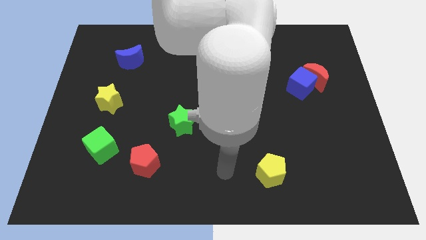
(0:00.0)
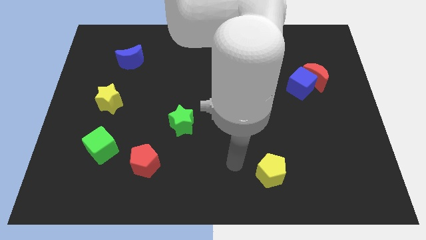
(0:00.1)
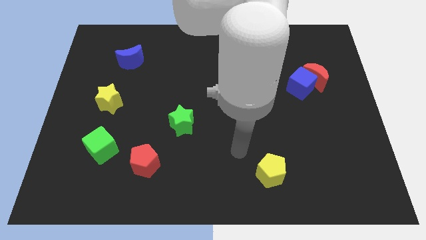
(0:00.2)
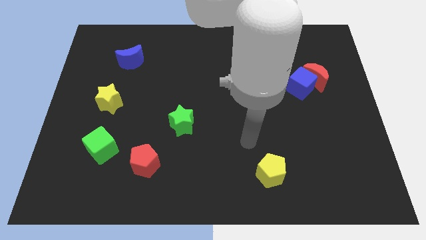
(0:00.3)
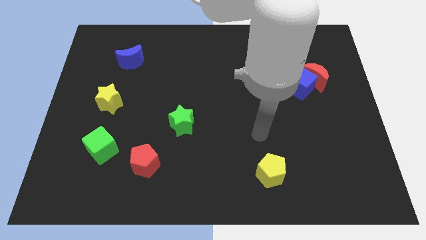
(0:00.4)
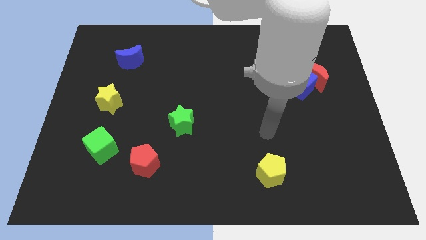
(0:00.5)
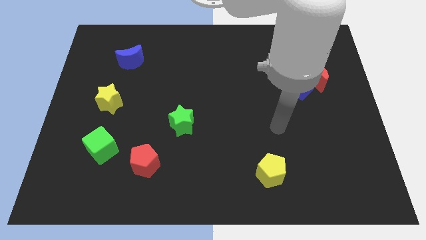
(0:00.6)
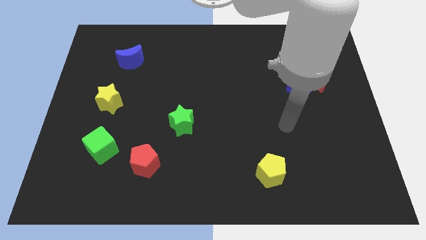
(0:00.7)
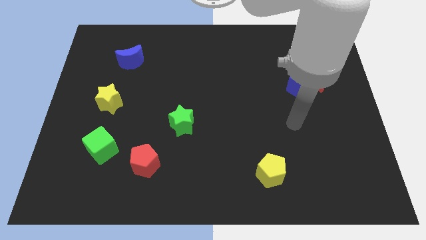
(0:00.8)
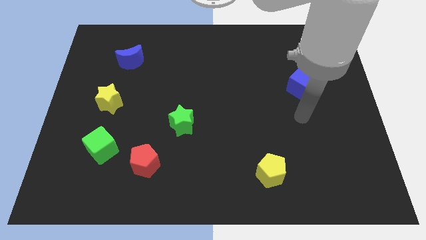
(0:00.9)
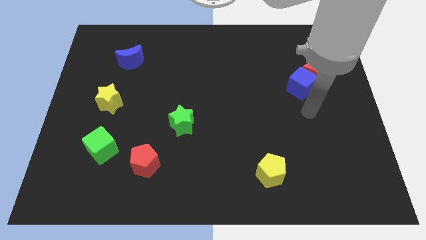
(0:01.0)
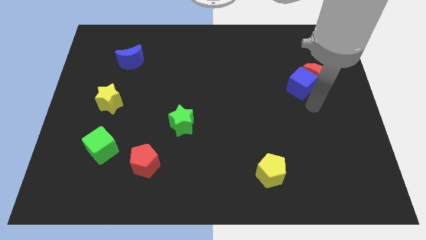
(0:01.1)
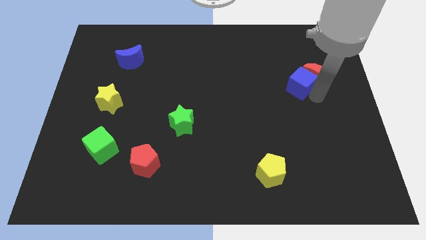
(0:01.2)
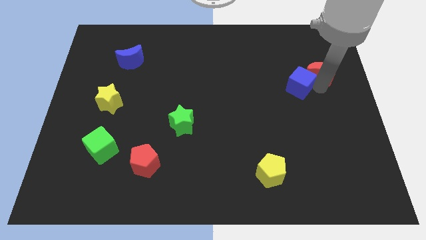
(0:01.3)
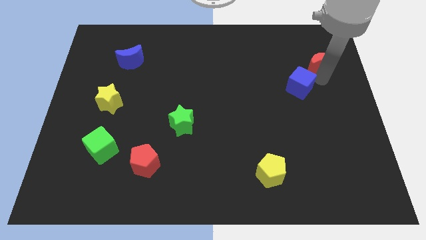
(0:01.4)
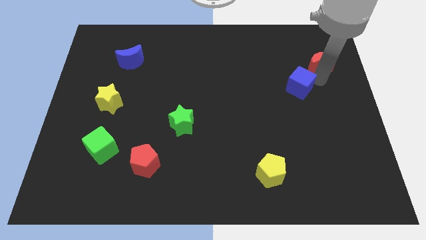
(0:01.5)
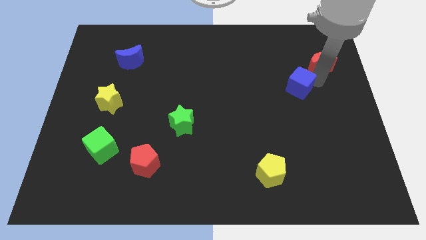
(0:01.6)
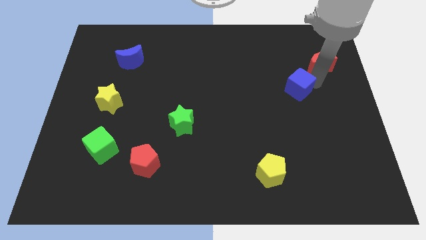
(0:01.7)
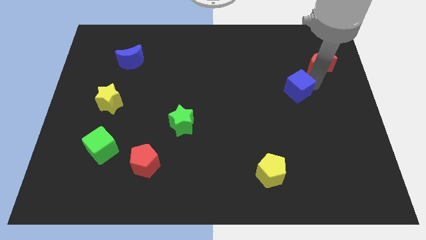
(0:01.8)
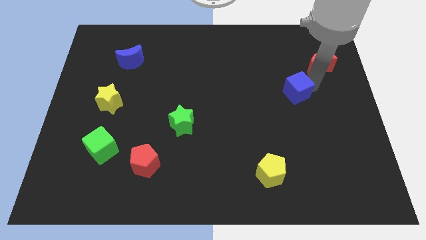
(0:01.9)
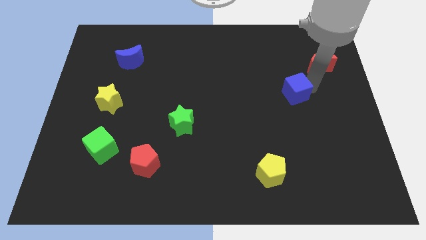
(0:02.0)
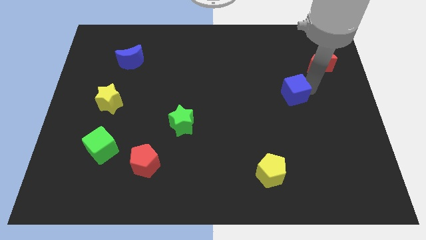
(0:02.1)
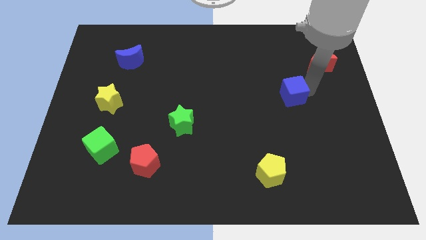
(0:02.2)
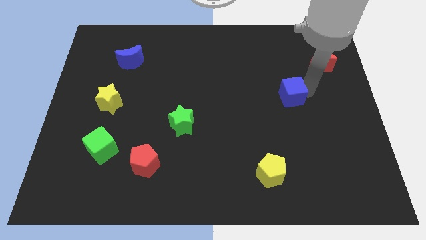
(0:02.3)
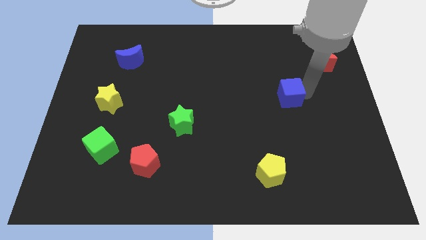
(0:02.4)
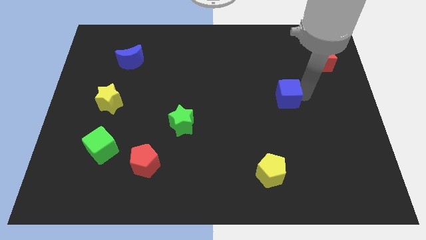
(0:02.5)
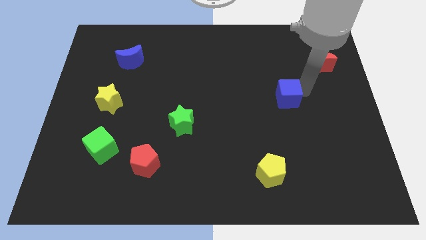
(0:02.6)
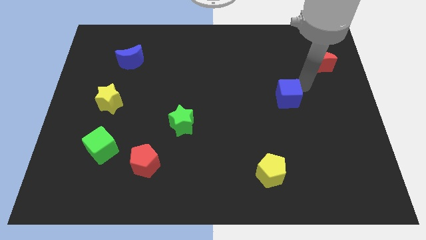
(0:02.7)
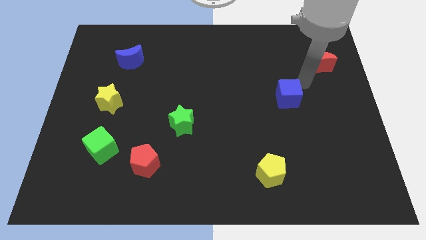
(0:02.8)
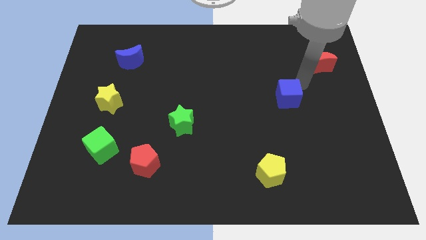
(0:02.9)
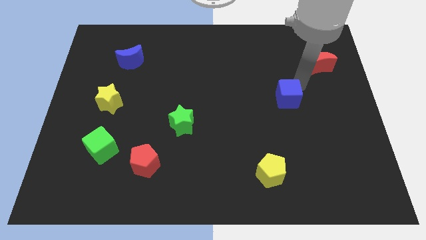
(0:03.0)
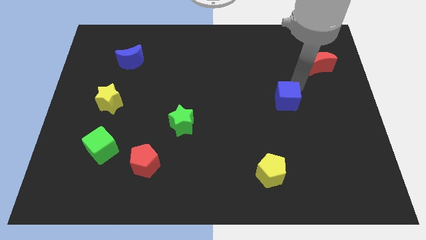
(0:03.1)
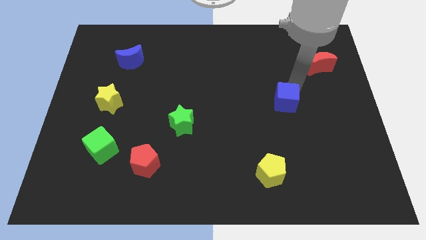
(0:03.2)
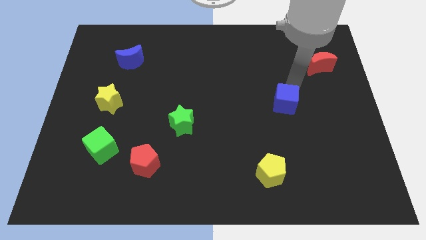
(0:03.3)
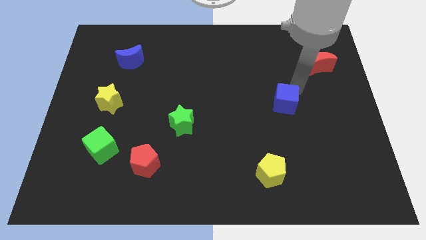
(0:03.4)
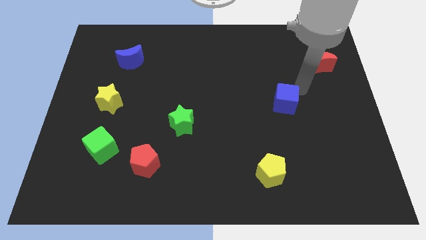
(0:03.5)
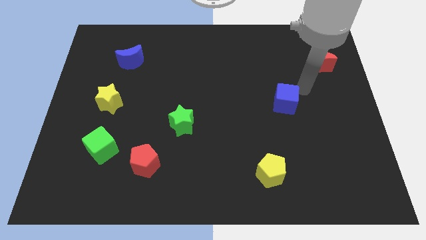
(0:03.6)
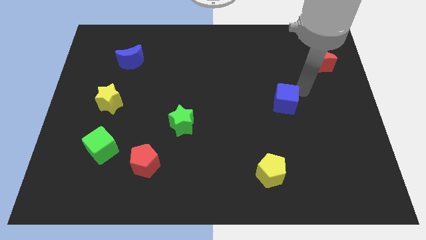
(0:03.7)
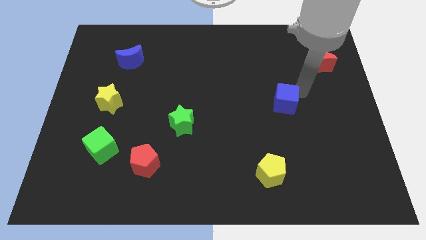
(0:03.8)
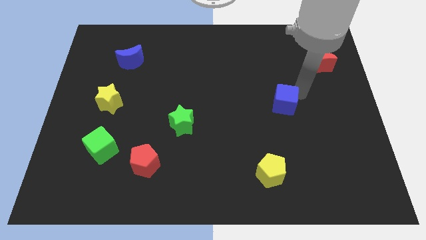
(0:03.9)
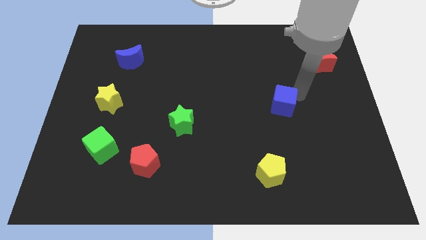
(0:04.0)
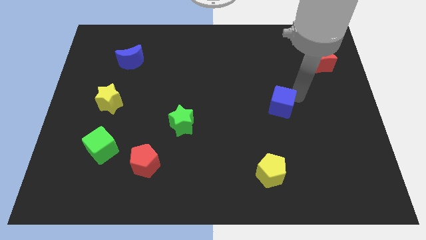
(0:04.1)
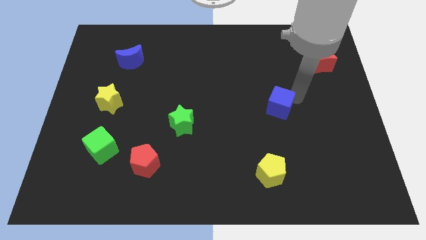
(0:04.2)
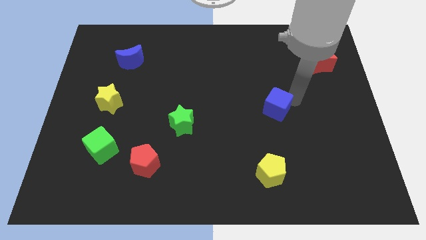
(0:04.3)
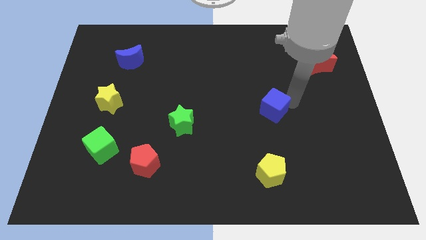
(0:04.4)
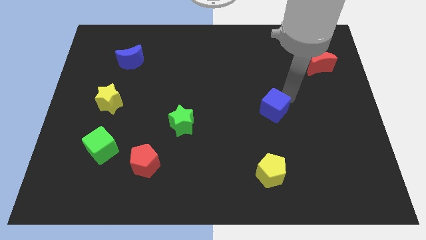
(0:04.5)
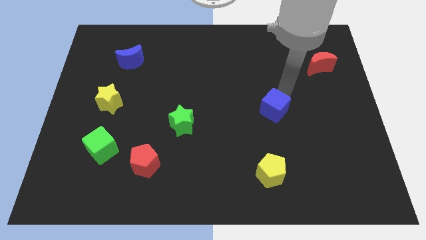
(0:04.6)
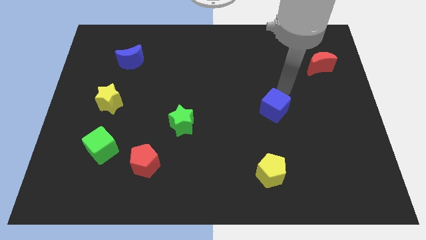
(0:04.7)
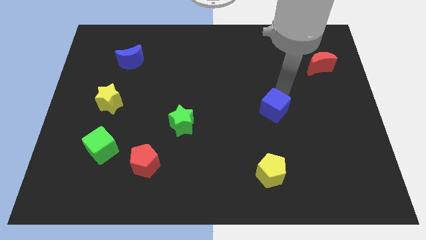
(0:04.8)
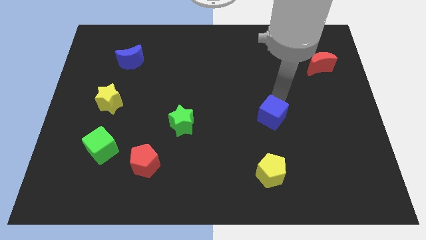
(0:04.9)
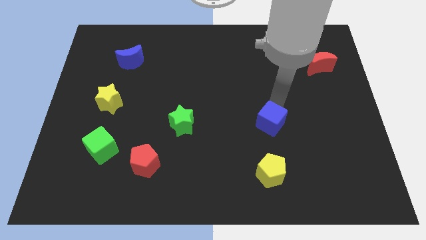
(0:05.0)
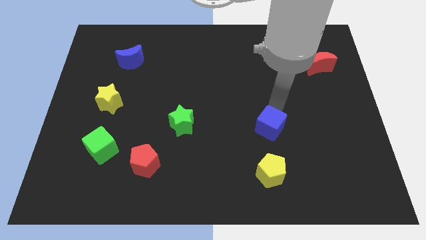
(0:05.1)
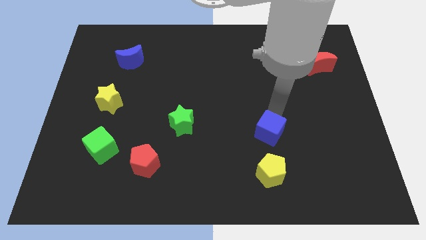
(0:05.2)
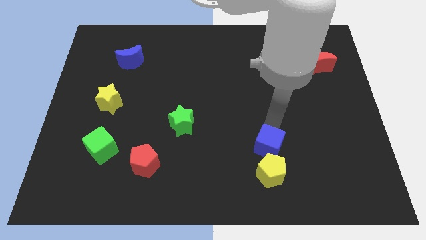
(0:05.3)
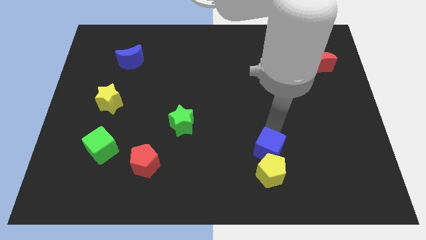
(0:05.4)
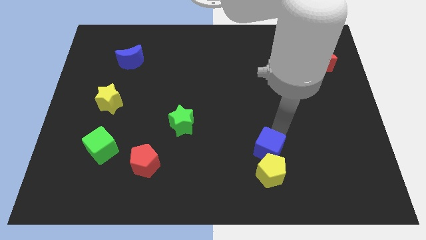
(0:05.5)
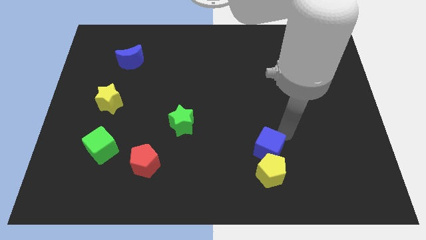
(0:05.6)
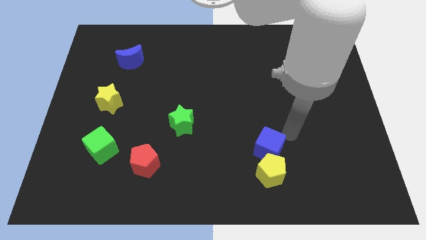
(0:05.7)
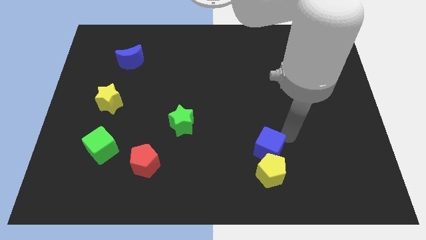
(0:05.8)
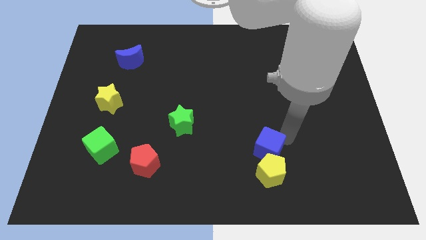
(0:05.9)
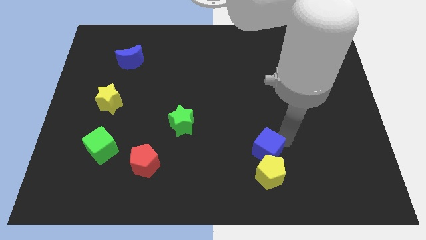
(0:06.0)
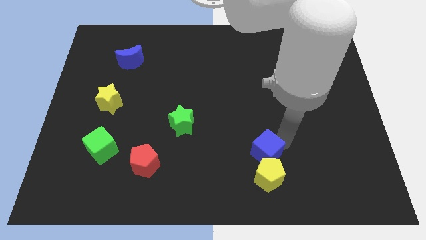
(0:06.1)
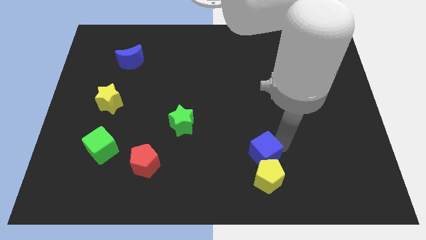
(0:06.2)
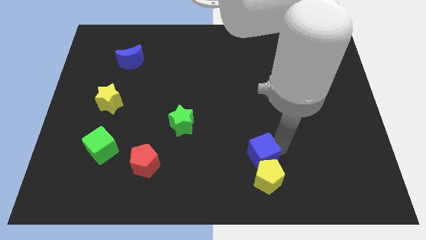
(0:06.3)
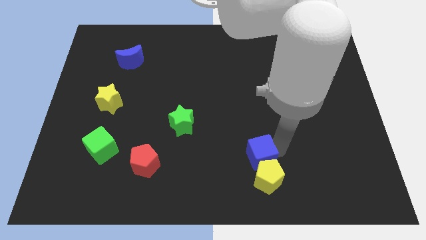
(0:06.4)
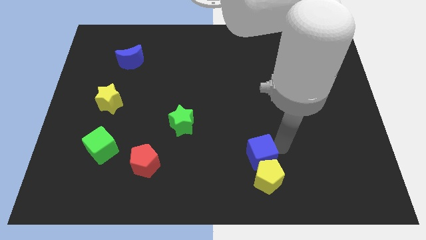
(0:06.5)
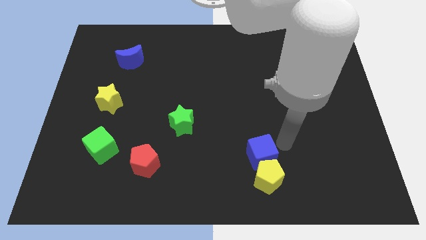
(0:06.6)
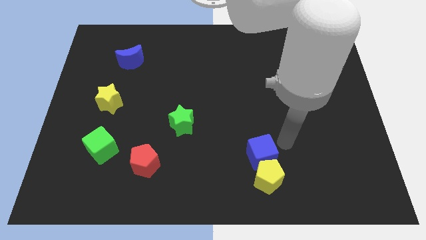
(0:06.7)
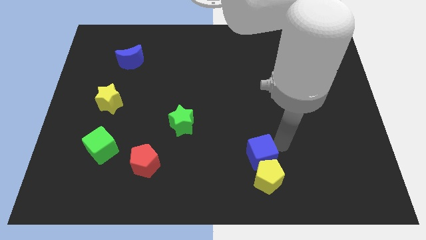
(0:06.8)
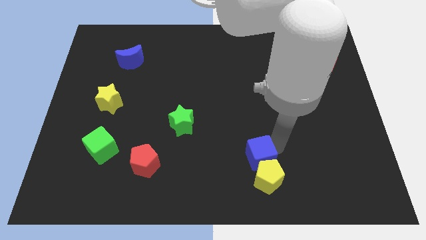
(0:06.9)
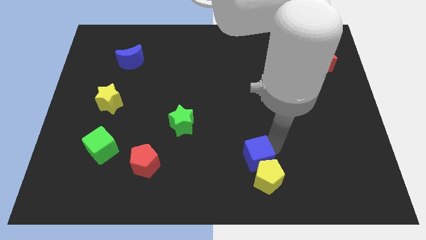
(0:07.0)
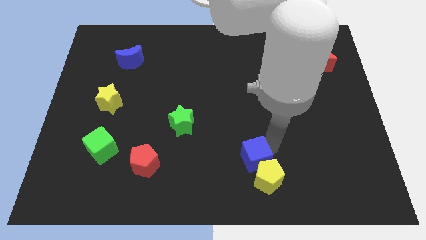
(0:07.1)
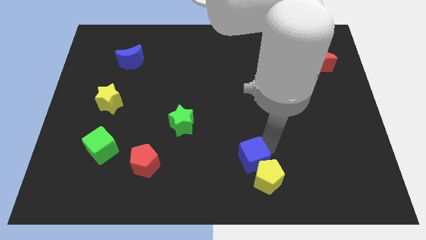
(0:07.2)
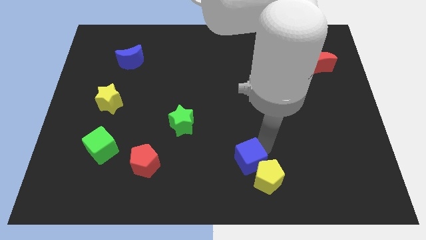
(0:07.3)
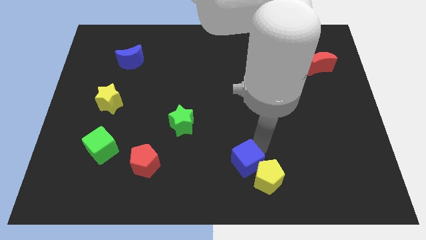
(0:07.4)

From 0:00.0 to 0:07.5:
push the blue cube to the bottom
